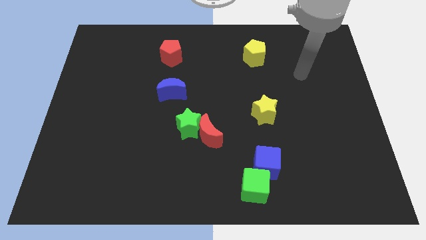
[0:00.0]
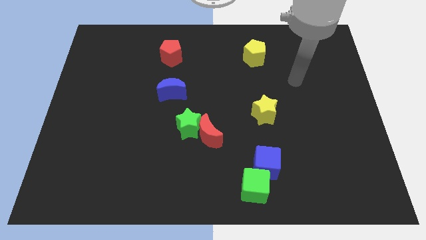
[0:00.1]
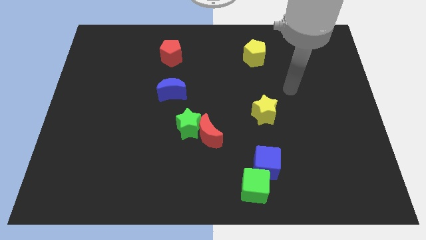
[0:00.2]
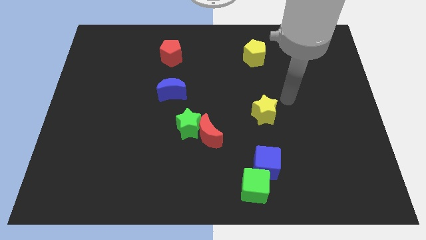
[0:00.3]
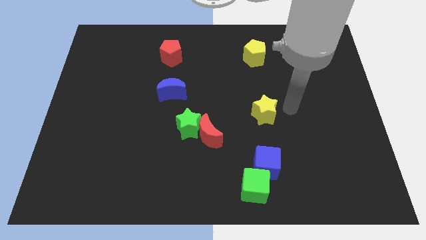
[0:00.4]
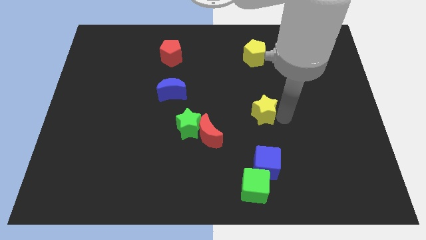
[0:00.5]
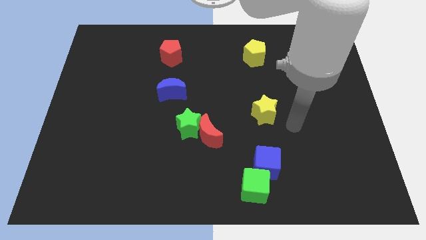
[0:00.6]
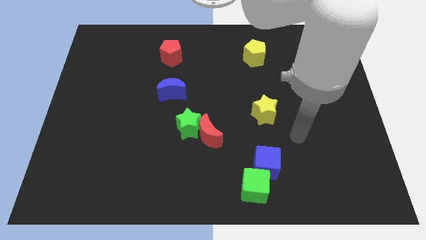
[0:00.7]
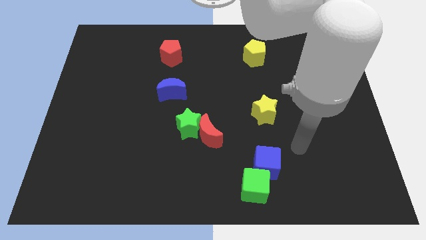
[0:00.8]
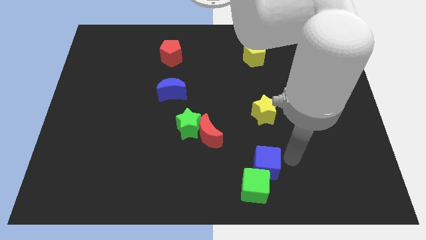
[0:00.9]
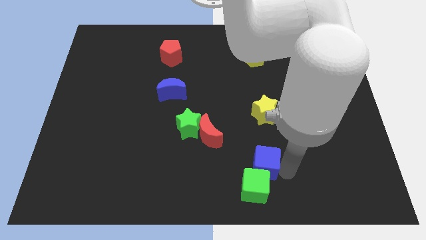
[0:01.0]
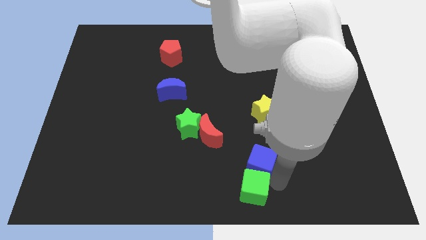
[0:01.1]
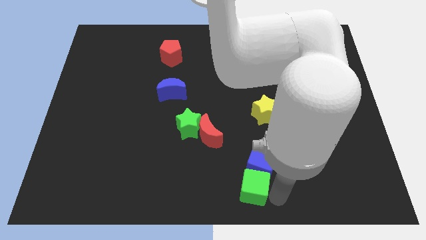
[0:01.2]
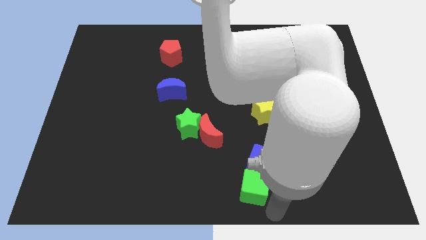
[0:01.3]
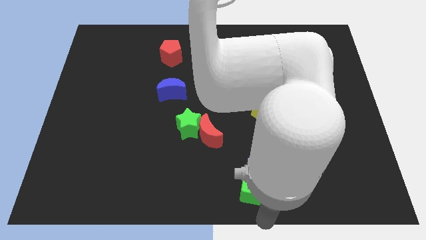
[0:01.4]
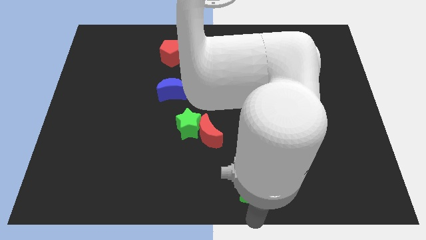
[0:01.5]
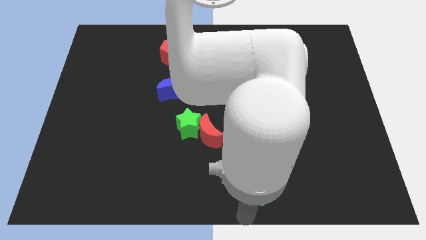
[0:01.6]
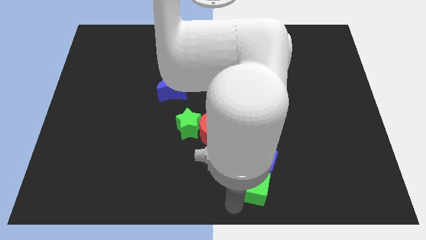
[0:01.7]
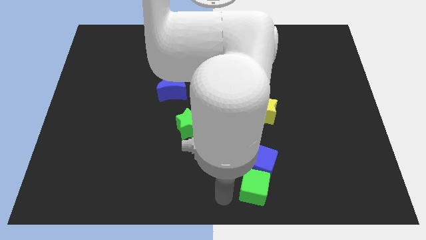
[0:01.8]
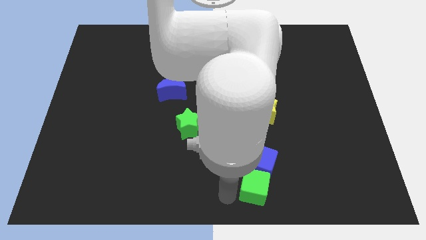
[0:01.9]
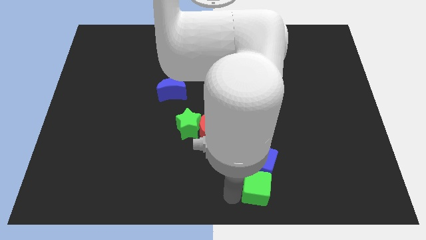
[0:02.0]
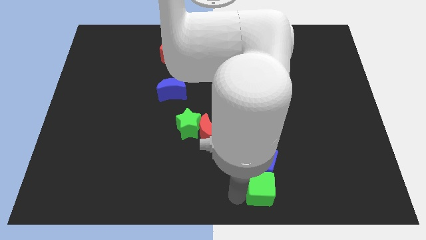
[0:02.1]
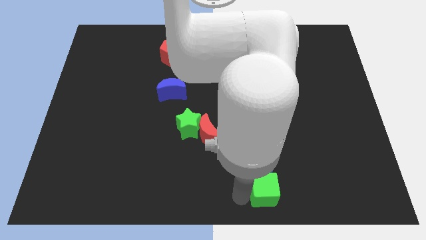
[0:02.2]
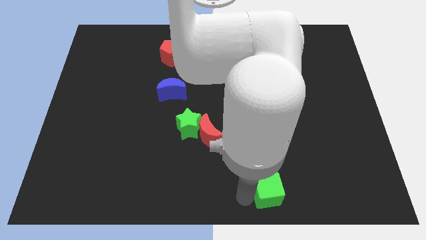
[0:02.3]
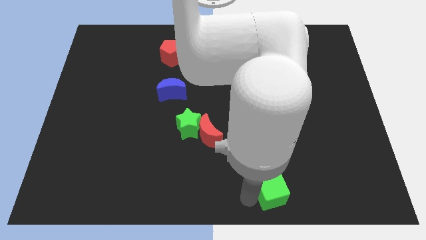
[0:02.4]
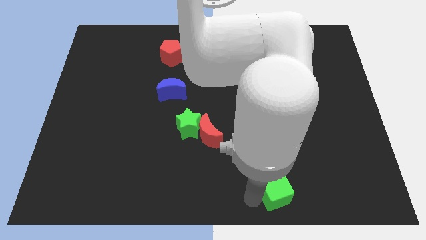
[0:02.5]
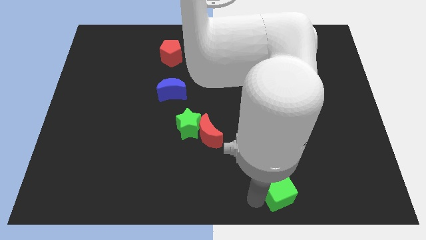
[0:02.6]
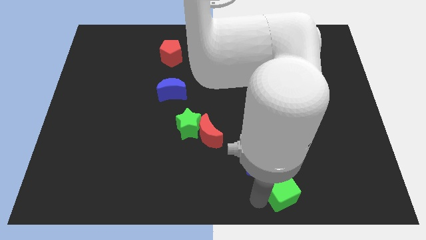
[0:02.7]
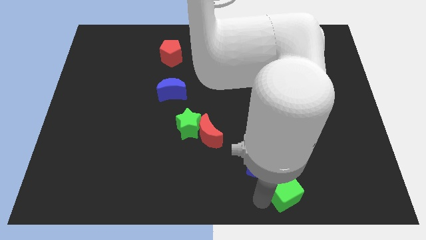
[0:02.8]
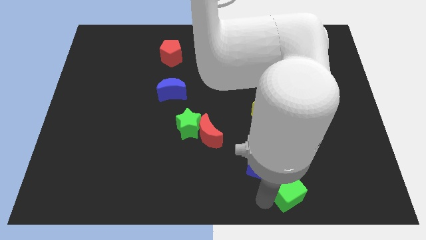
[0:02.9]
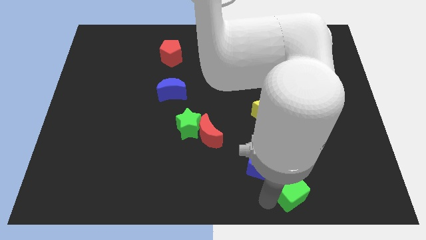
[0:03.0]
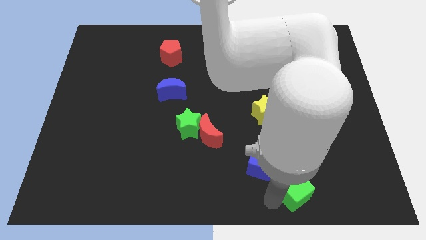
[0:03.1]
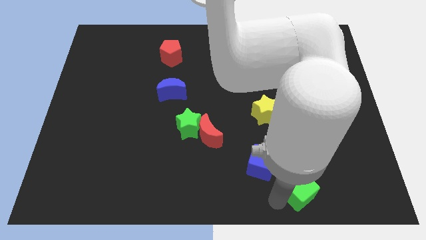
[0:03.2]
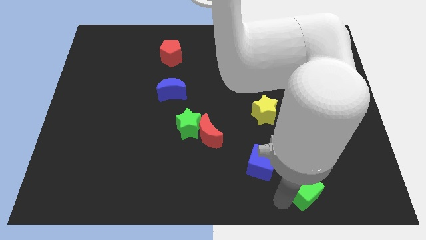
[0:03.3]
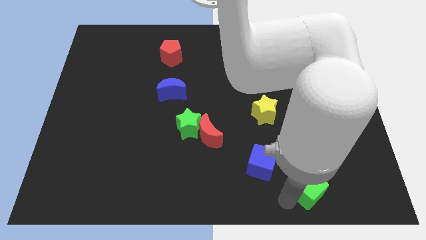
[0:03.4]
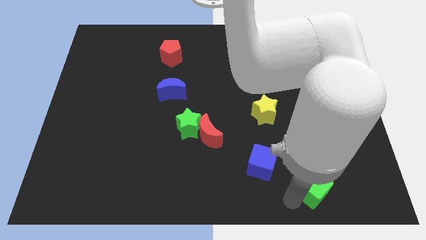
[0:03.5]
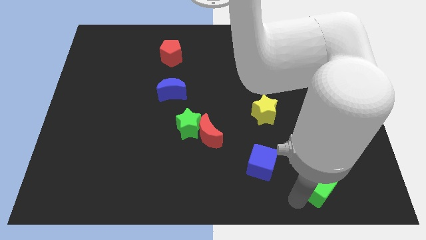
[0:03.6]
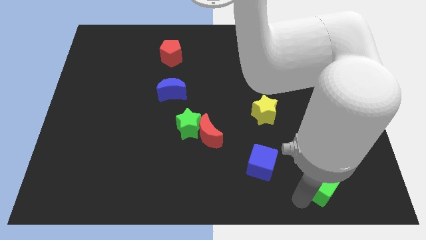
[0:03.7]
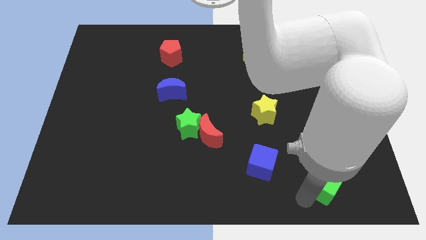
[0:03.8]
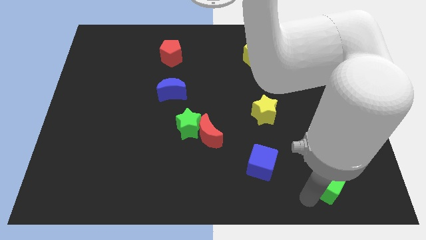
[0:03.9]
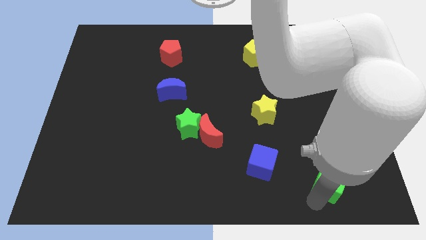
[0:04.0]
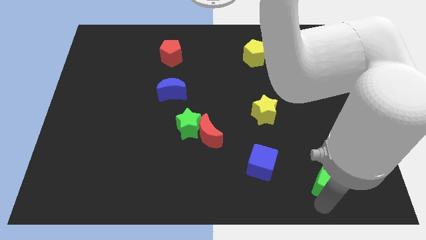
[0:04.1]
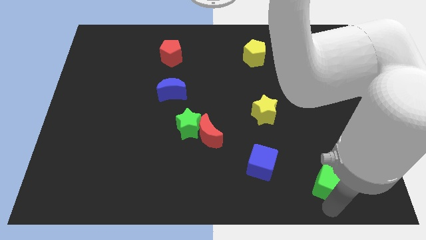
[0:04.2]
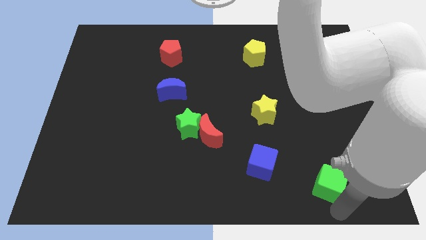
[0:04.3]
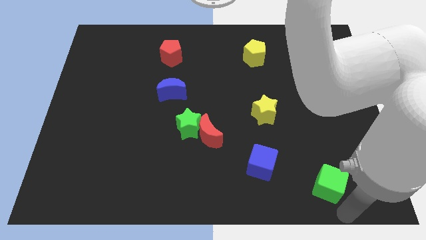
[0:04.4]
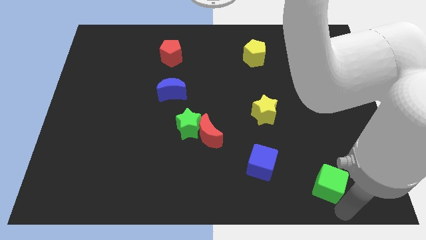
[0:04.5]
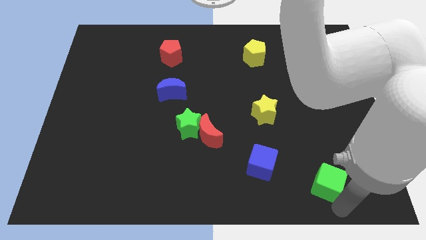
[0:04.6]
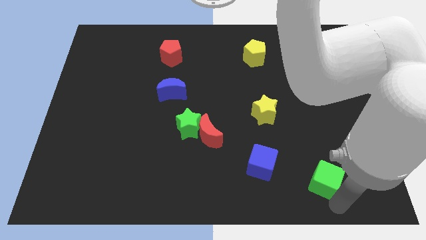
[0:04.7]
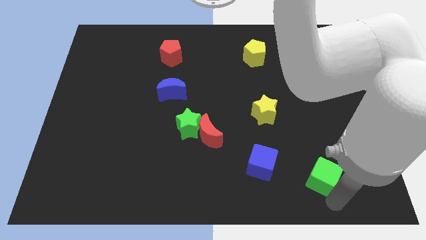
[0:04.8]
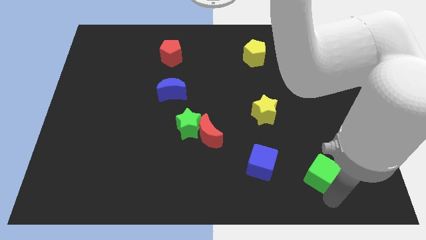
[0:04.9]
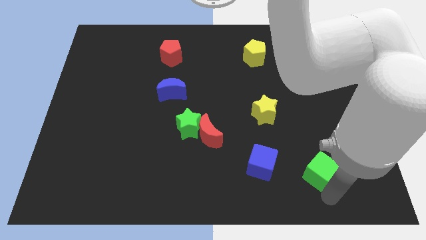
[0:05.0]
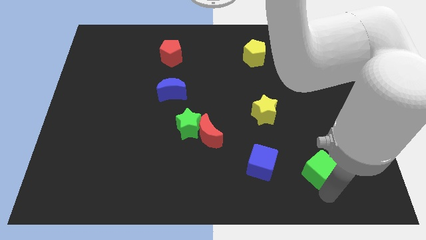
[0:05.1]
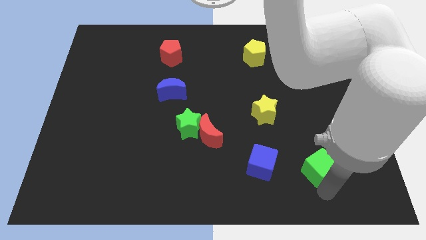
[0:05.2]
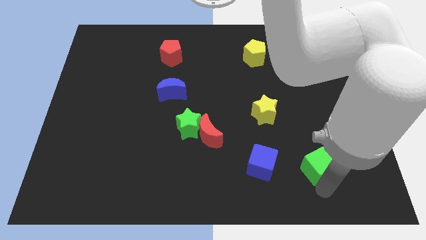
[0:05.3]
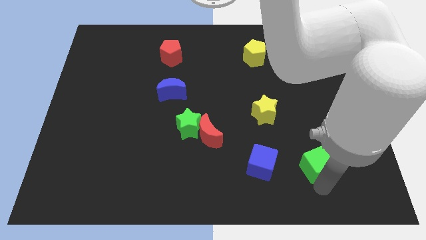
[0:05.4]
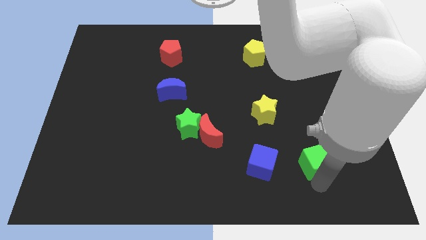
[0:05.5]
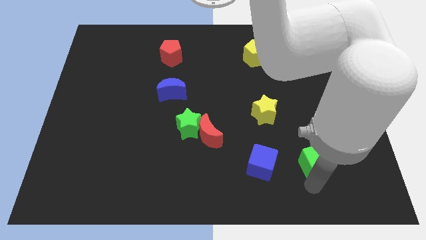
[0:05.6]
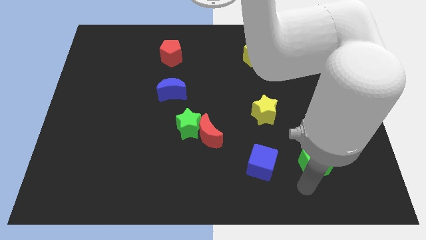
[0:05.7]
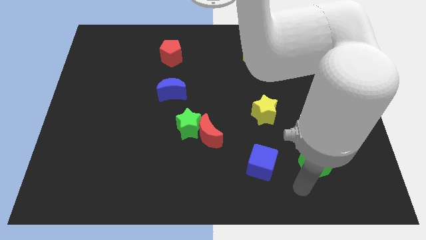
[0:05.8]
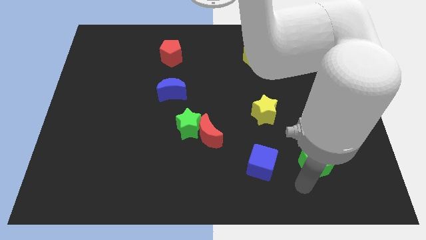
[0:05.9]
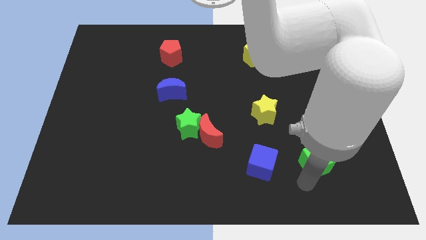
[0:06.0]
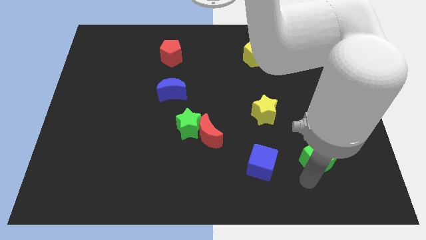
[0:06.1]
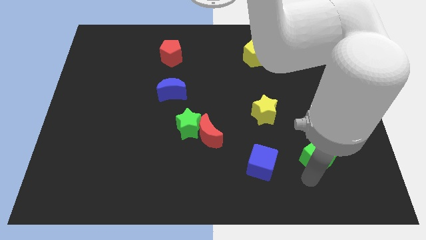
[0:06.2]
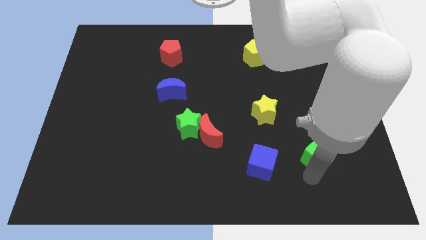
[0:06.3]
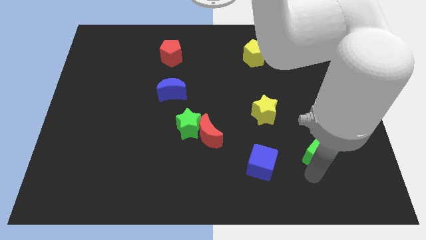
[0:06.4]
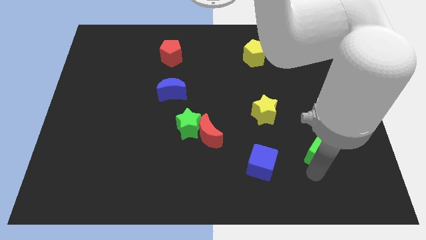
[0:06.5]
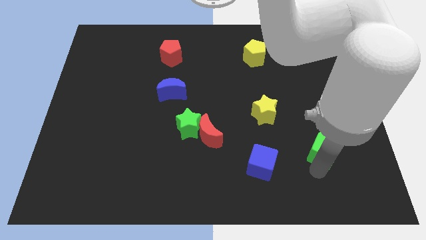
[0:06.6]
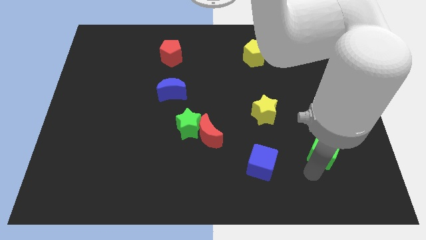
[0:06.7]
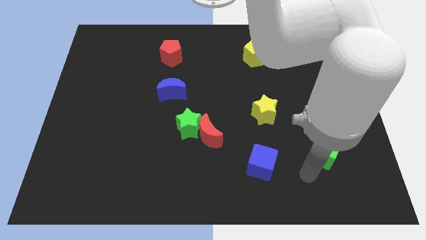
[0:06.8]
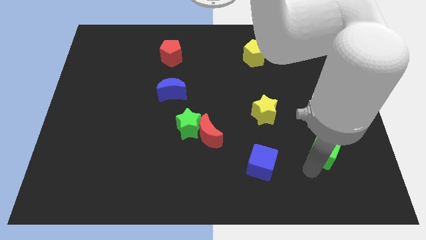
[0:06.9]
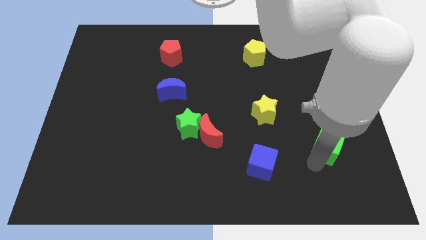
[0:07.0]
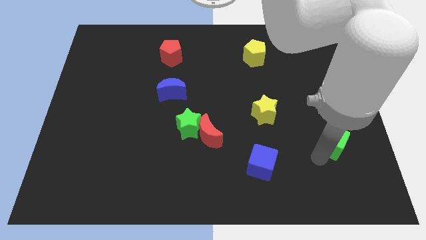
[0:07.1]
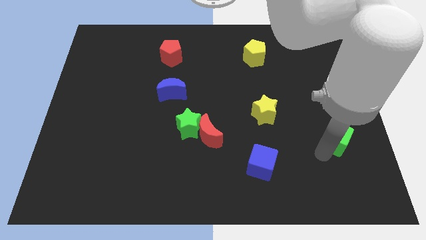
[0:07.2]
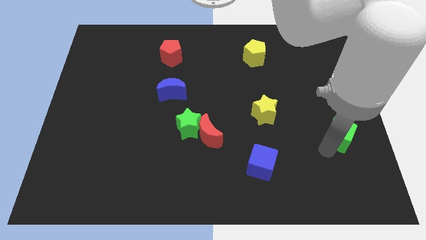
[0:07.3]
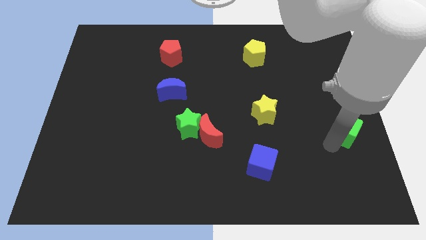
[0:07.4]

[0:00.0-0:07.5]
slide the green cube to the right side
